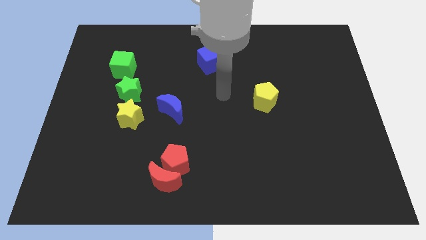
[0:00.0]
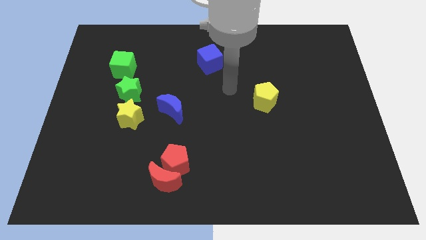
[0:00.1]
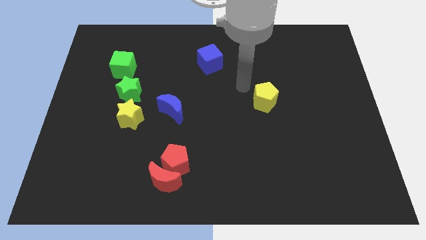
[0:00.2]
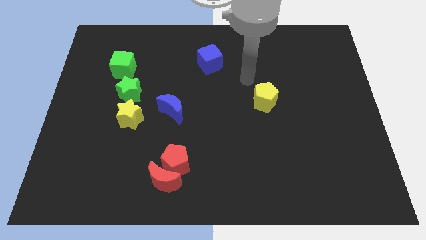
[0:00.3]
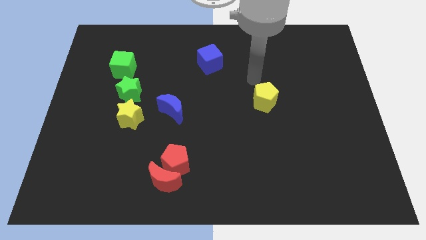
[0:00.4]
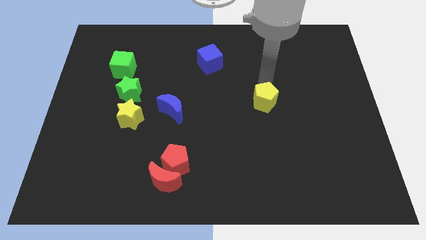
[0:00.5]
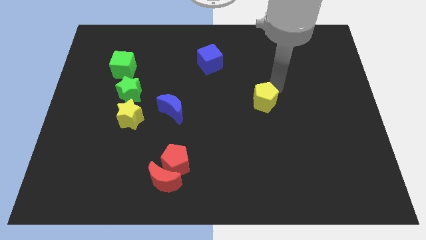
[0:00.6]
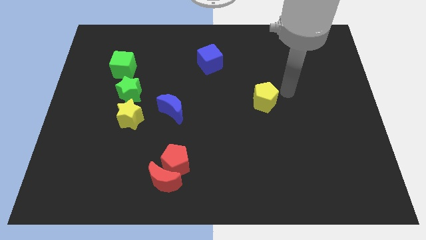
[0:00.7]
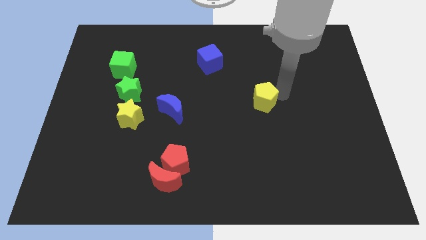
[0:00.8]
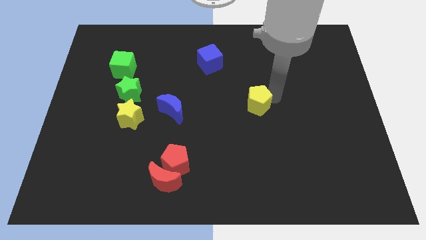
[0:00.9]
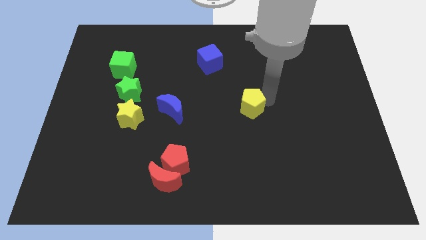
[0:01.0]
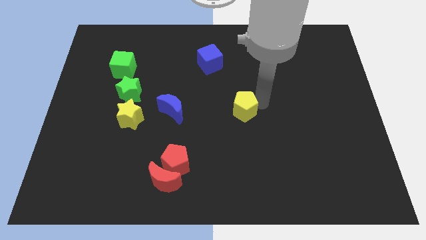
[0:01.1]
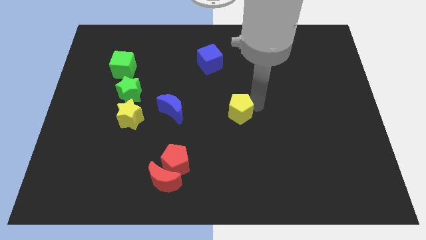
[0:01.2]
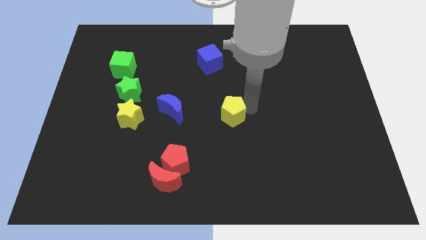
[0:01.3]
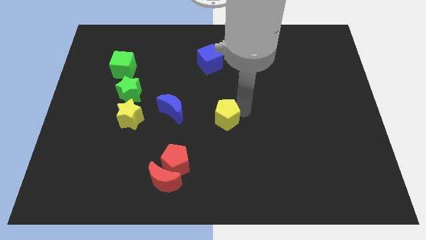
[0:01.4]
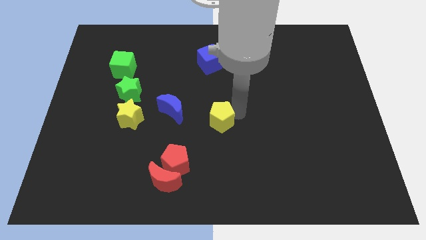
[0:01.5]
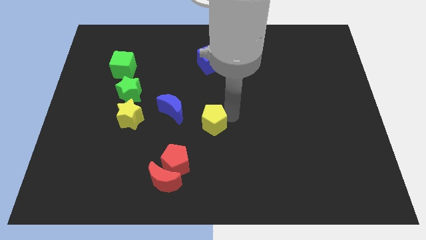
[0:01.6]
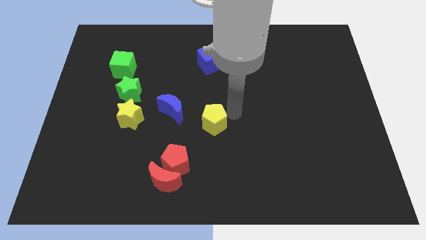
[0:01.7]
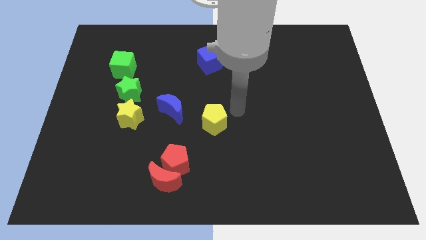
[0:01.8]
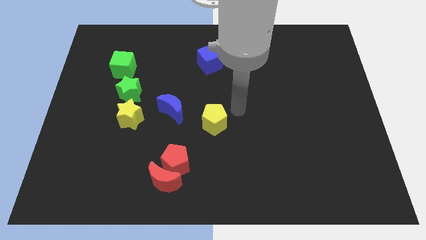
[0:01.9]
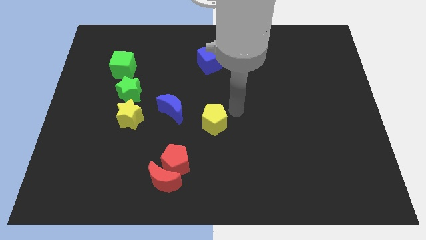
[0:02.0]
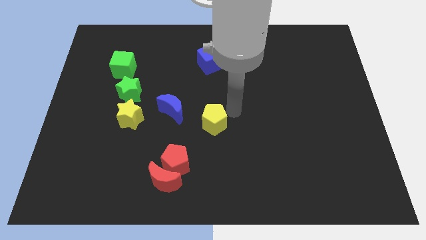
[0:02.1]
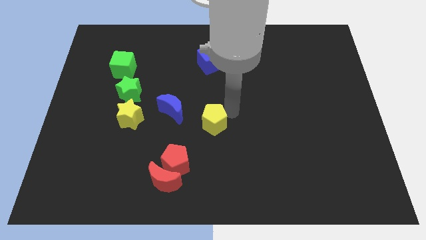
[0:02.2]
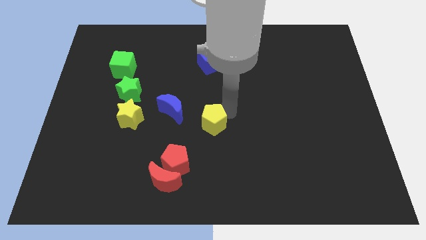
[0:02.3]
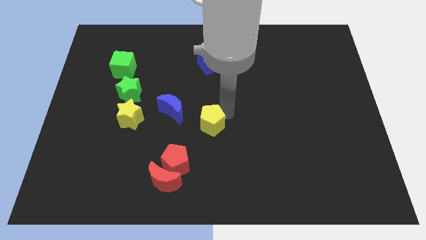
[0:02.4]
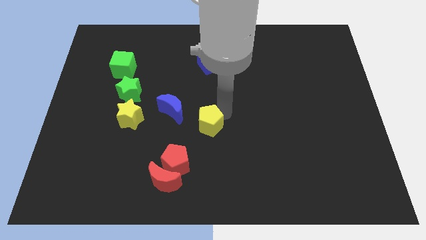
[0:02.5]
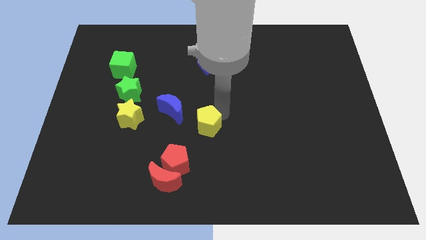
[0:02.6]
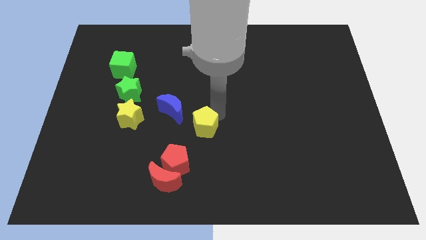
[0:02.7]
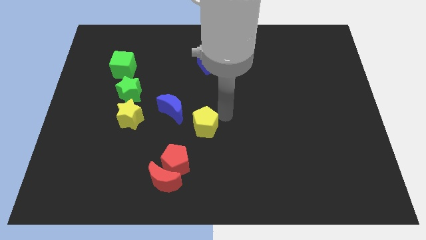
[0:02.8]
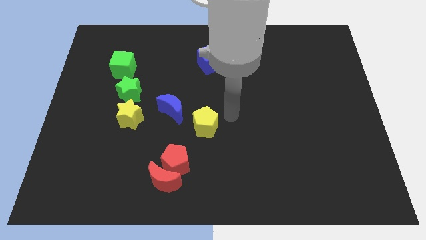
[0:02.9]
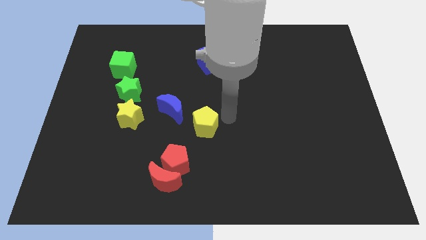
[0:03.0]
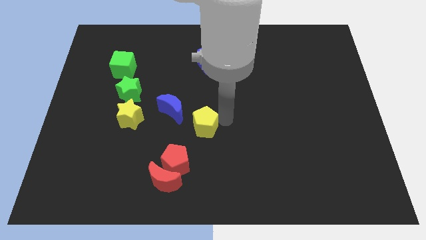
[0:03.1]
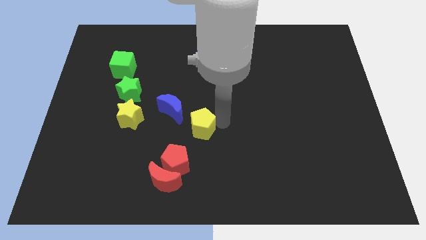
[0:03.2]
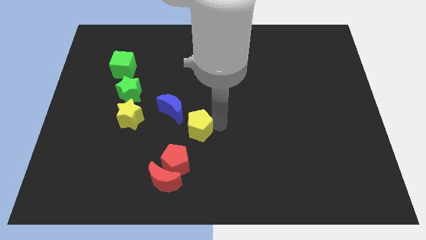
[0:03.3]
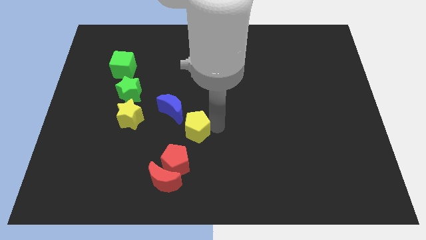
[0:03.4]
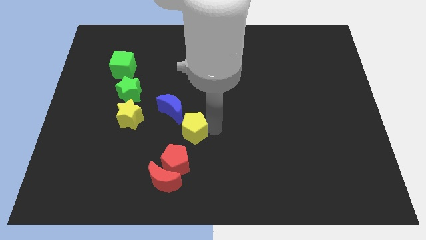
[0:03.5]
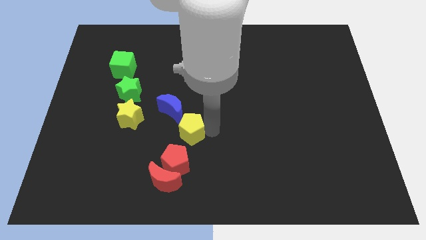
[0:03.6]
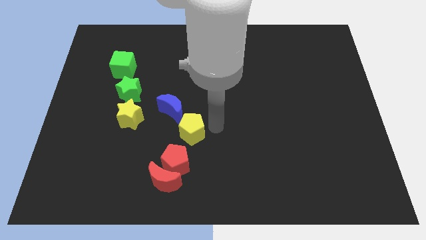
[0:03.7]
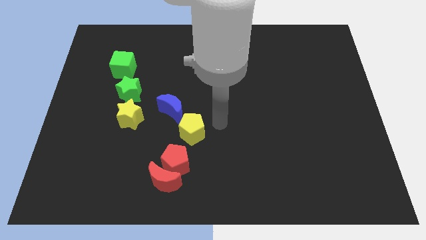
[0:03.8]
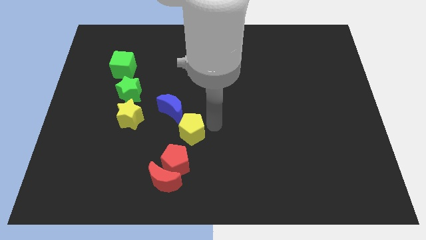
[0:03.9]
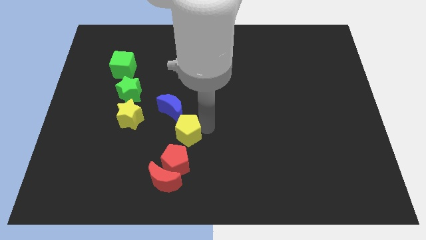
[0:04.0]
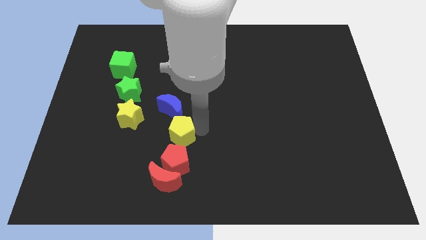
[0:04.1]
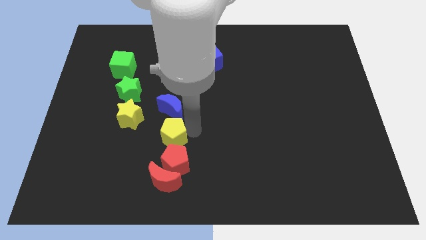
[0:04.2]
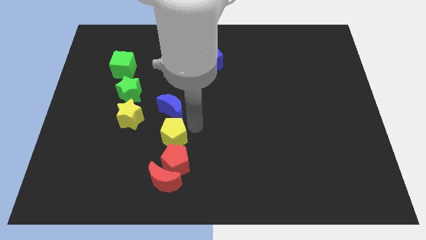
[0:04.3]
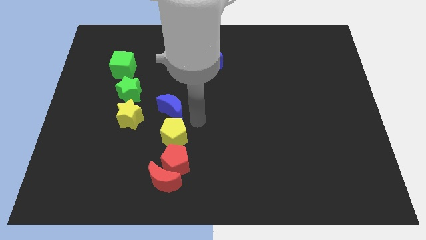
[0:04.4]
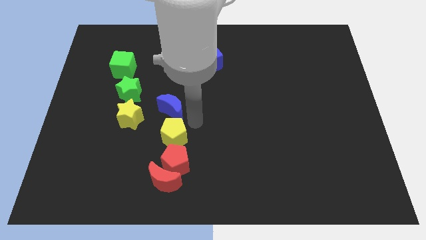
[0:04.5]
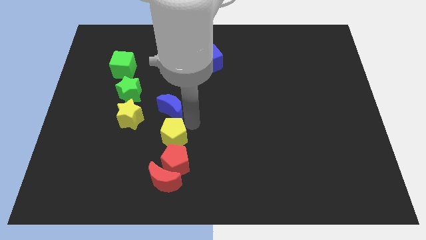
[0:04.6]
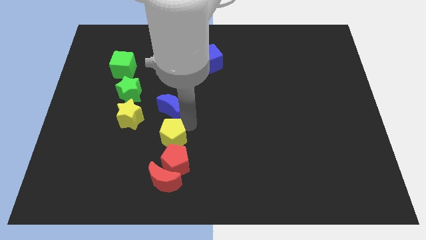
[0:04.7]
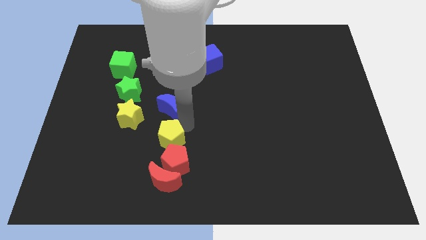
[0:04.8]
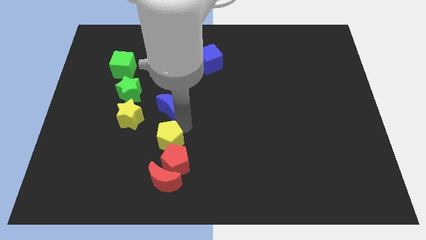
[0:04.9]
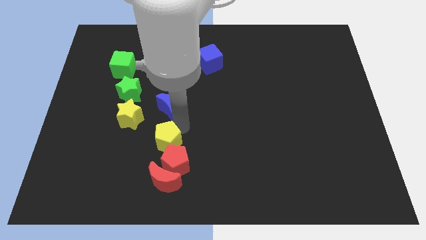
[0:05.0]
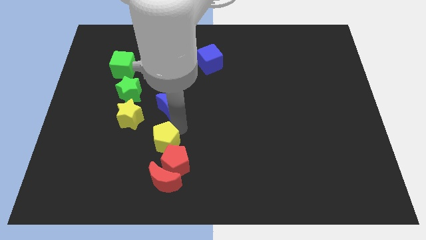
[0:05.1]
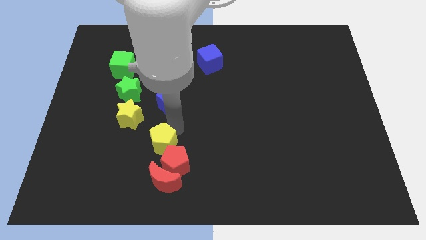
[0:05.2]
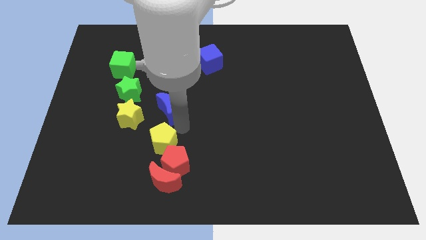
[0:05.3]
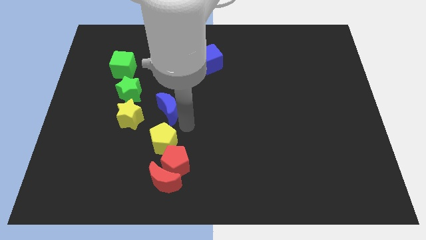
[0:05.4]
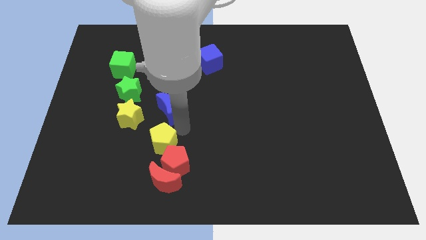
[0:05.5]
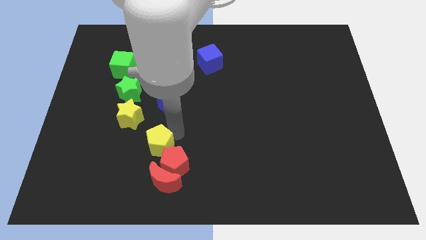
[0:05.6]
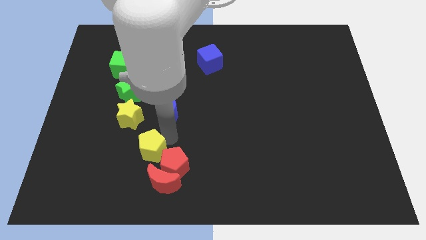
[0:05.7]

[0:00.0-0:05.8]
push the yellow pentagon diagonally up and to the left of the red moon

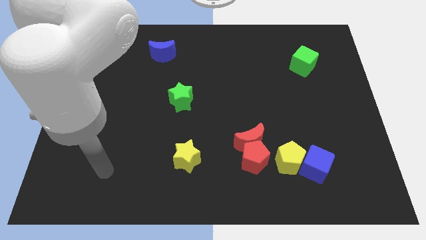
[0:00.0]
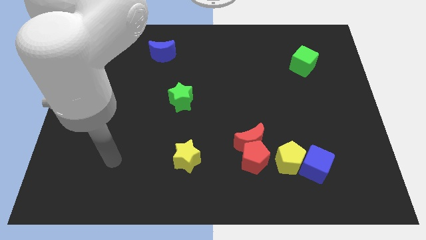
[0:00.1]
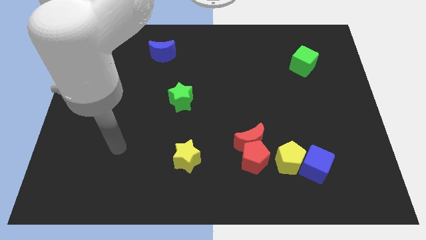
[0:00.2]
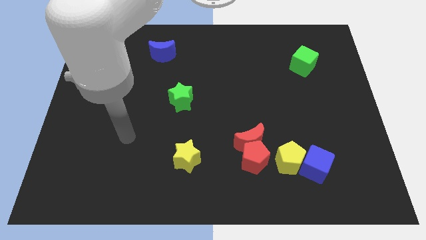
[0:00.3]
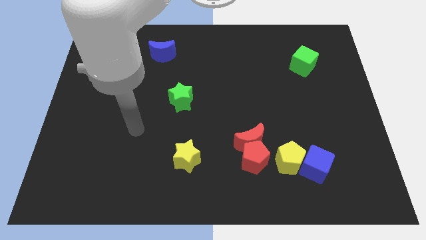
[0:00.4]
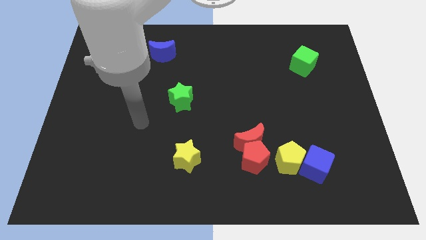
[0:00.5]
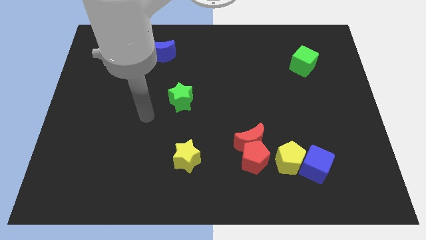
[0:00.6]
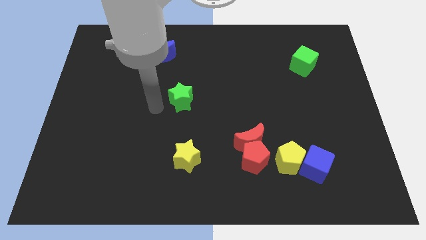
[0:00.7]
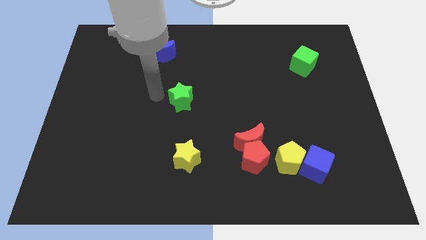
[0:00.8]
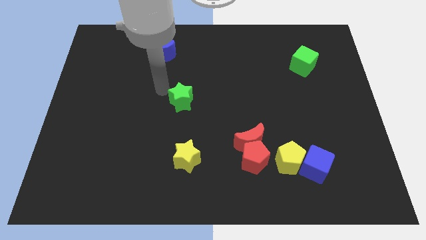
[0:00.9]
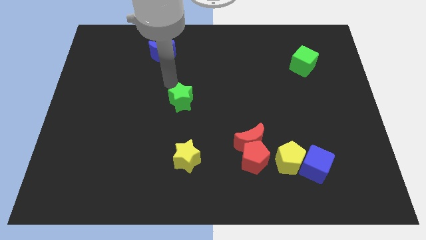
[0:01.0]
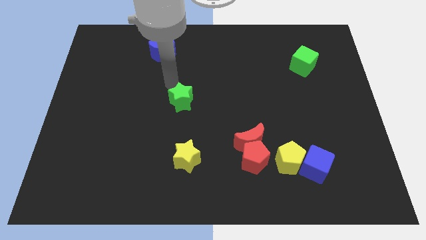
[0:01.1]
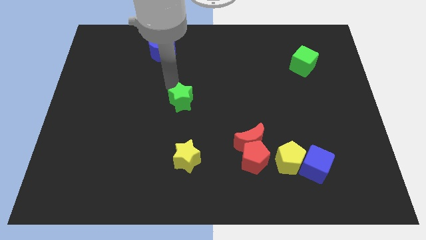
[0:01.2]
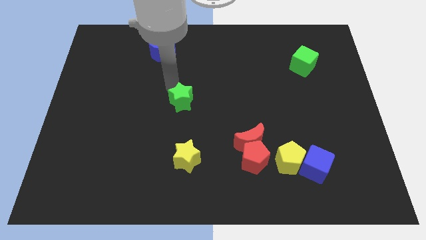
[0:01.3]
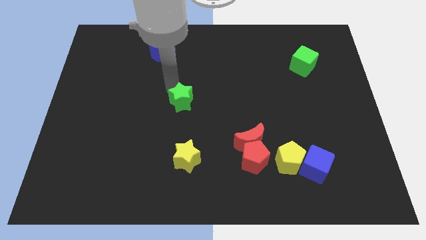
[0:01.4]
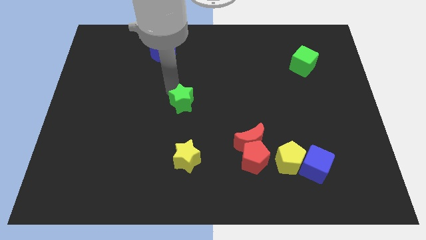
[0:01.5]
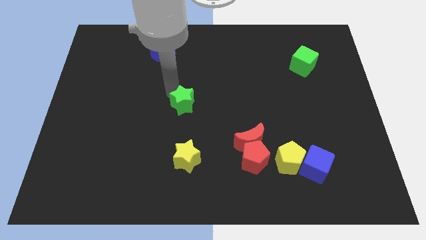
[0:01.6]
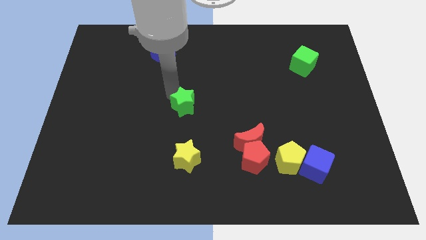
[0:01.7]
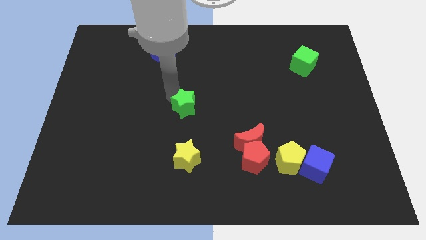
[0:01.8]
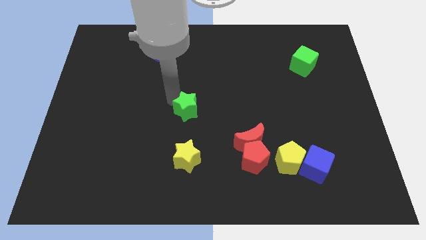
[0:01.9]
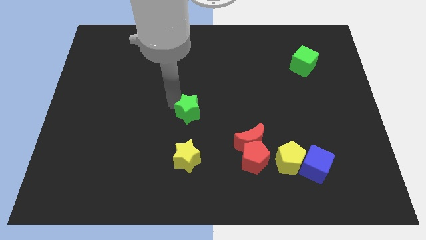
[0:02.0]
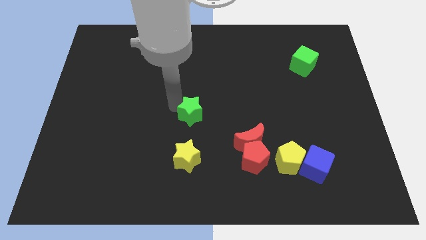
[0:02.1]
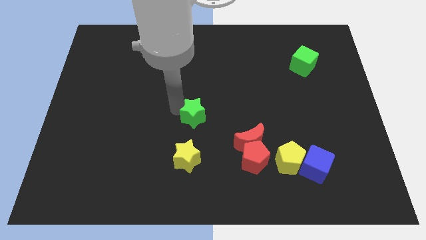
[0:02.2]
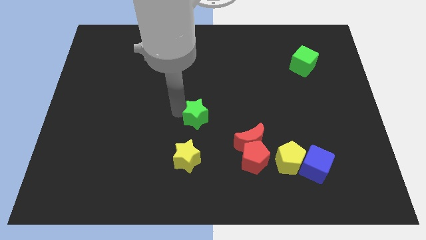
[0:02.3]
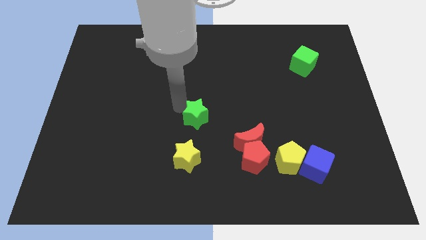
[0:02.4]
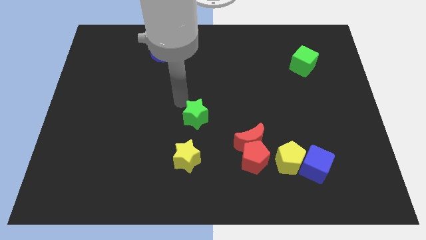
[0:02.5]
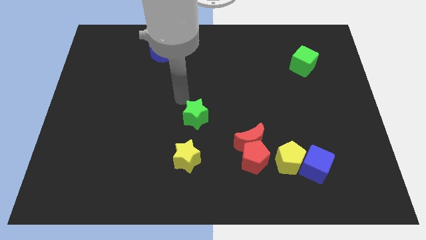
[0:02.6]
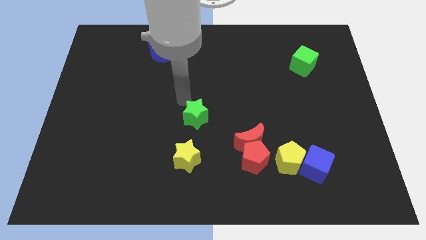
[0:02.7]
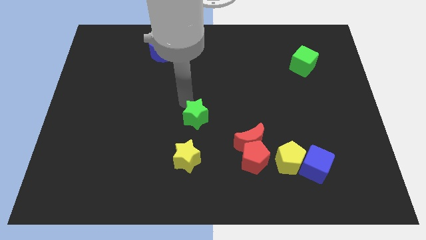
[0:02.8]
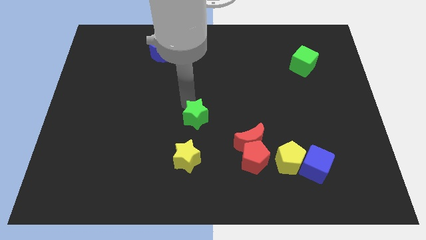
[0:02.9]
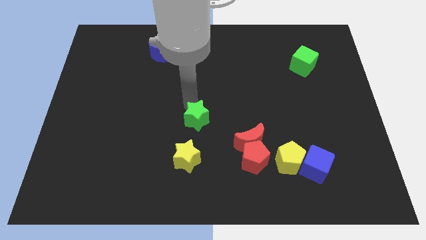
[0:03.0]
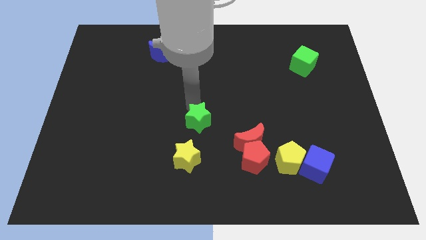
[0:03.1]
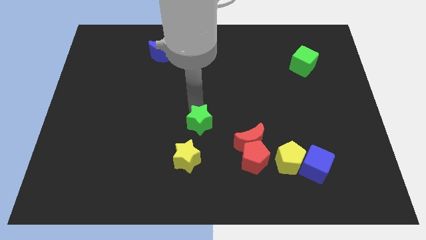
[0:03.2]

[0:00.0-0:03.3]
push the green star to the top right of the yellow star
